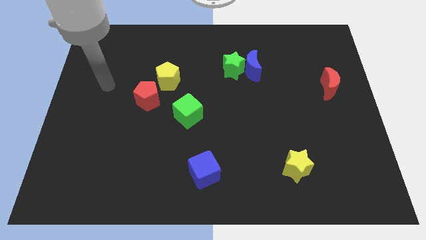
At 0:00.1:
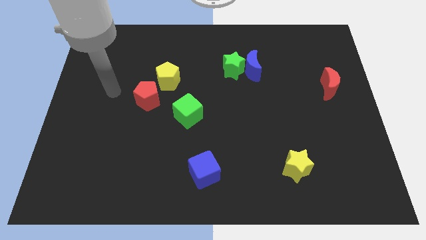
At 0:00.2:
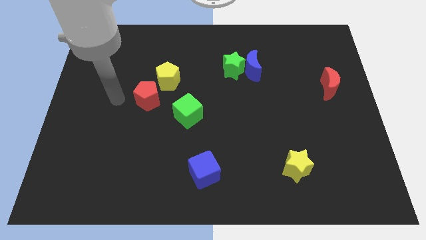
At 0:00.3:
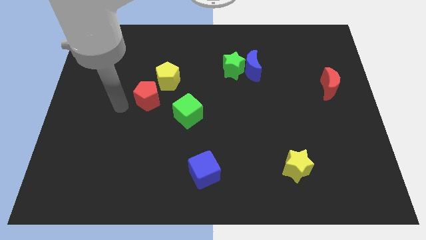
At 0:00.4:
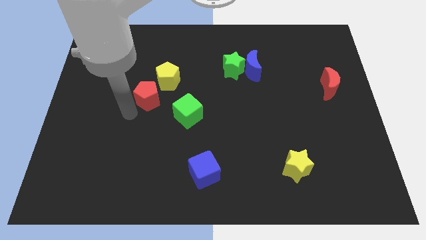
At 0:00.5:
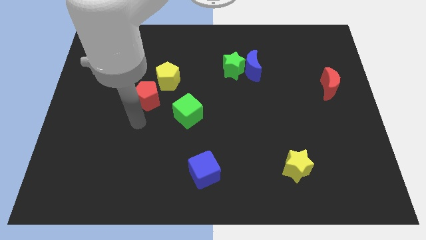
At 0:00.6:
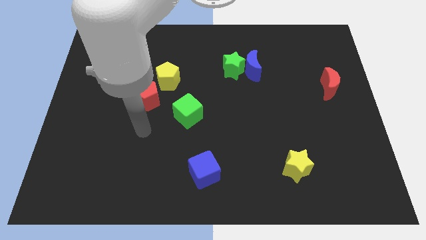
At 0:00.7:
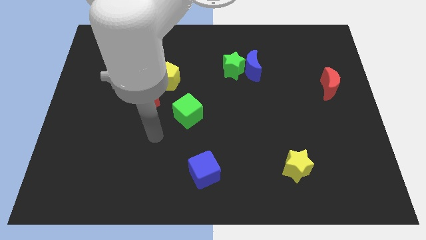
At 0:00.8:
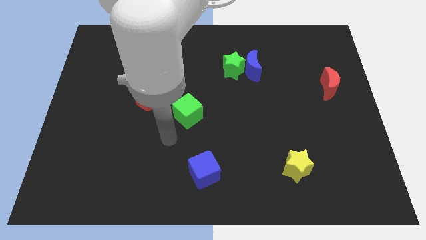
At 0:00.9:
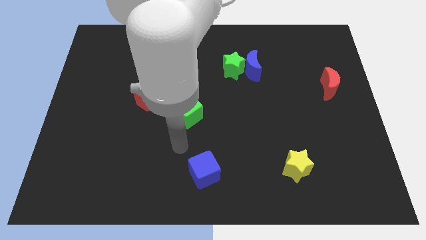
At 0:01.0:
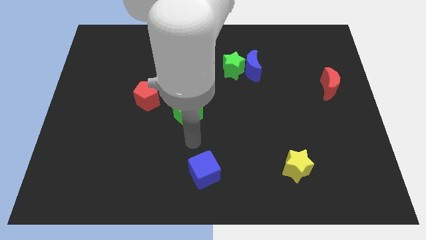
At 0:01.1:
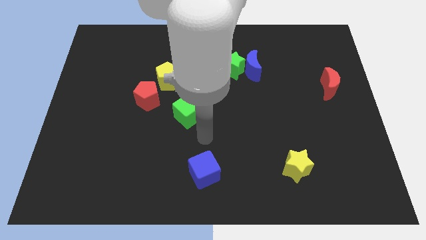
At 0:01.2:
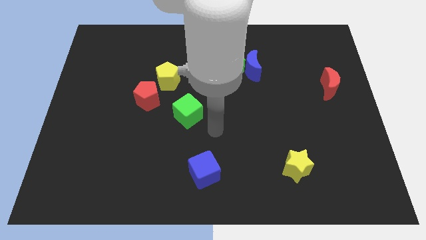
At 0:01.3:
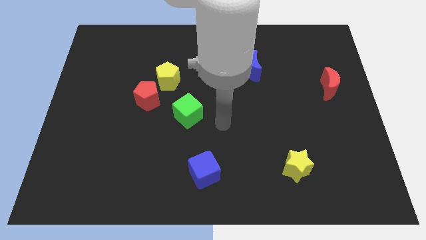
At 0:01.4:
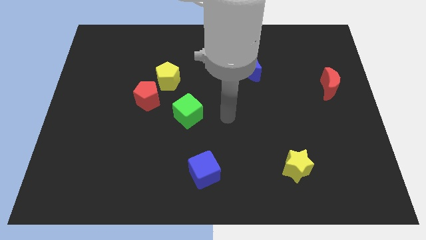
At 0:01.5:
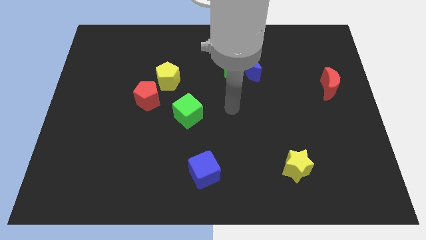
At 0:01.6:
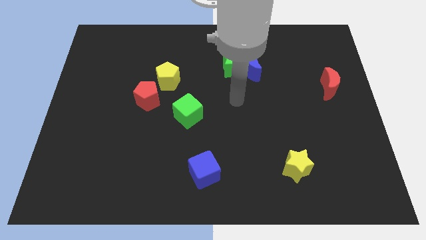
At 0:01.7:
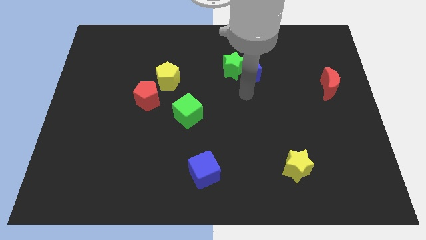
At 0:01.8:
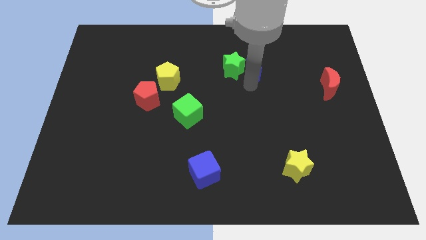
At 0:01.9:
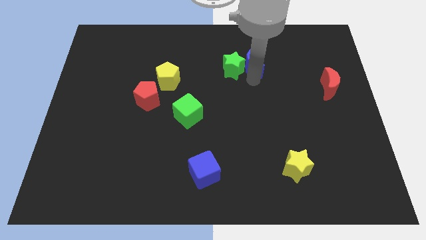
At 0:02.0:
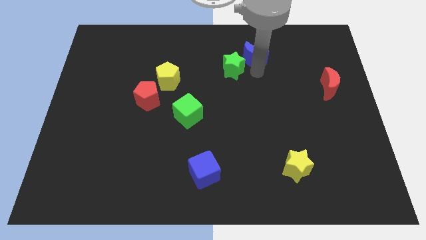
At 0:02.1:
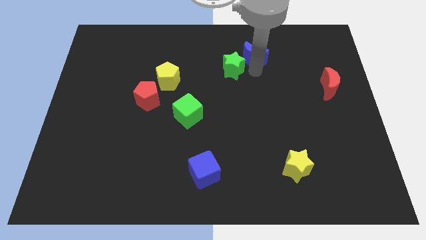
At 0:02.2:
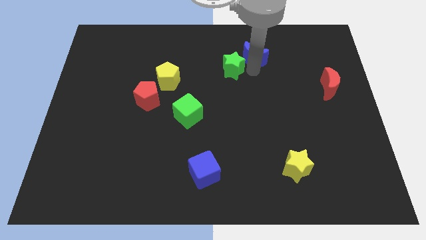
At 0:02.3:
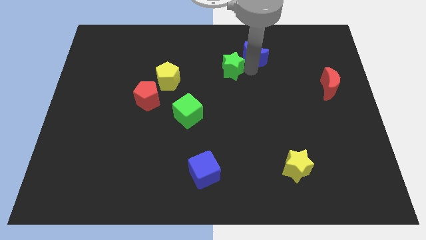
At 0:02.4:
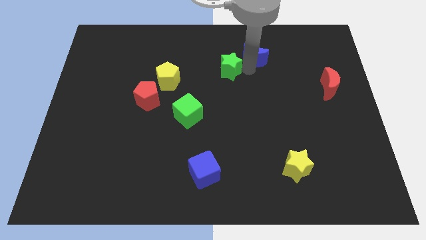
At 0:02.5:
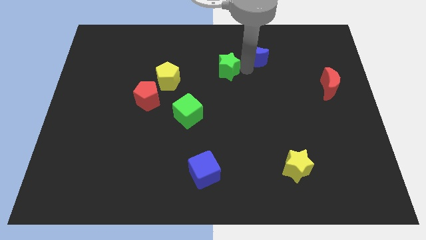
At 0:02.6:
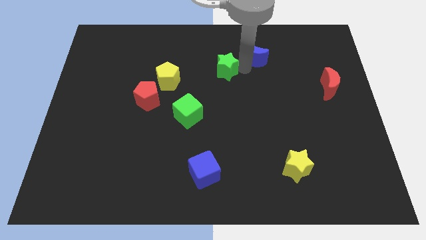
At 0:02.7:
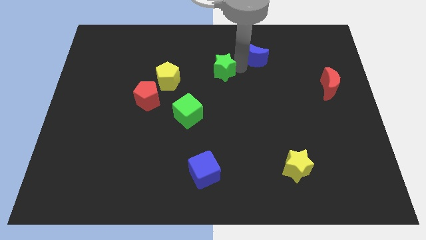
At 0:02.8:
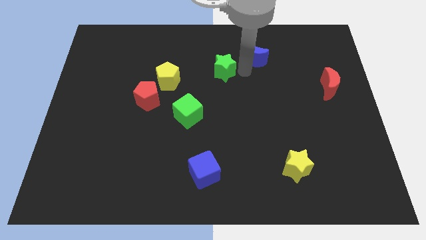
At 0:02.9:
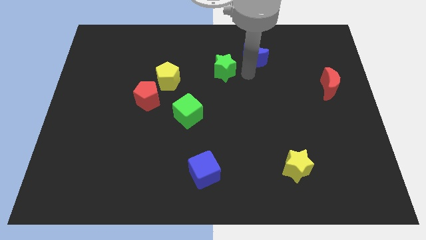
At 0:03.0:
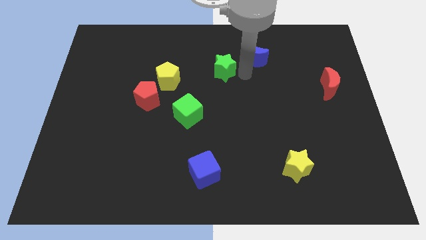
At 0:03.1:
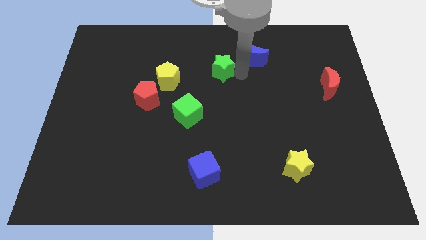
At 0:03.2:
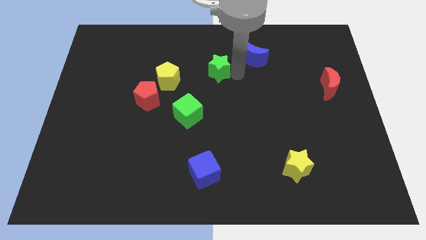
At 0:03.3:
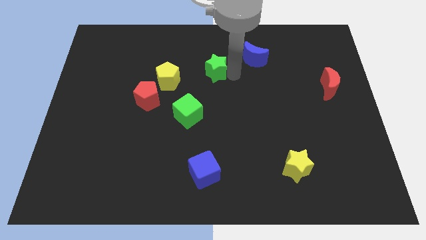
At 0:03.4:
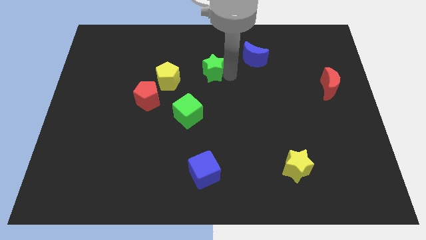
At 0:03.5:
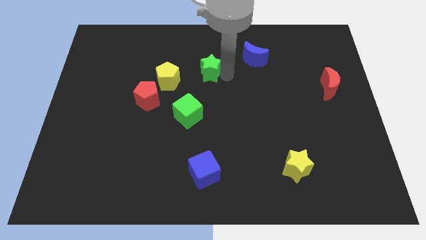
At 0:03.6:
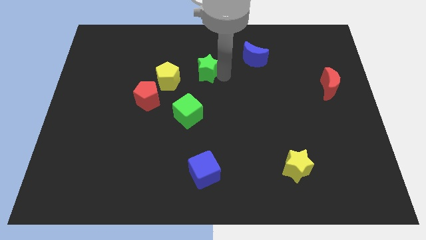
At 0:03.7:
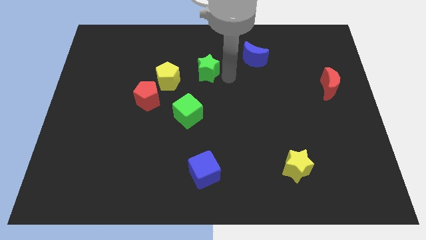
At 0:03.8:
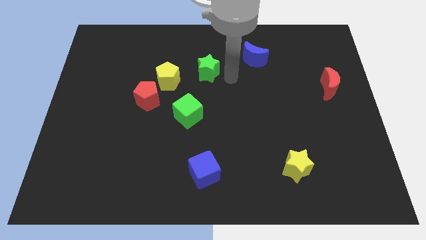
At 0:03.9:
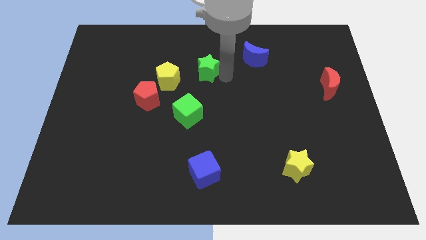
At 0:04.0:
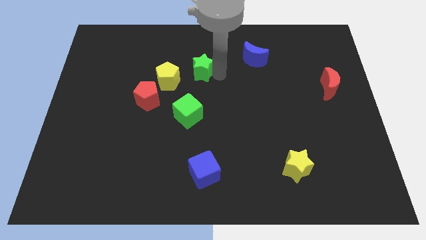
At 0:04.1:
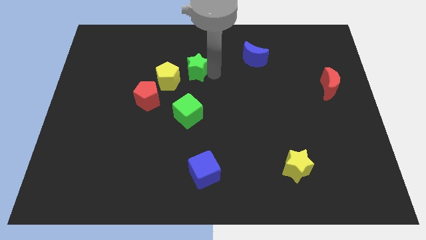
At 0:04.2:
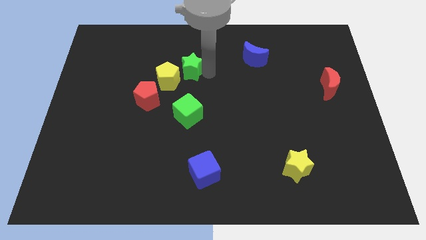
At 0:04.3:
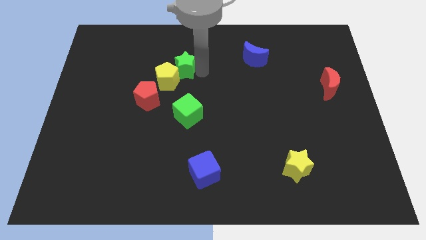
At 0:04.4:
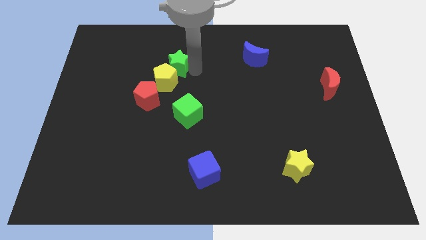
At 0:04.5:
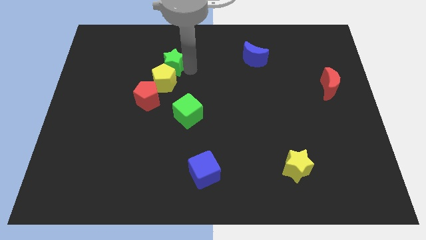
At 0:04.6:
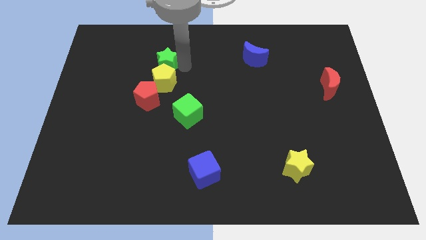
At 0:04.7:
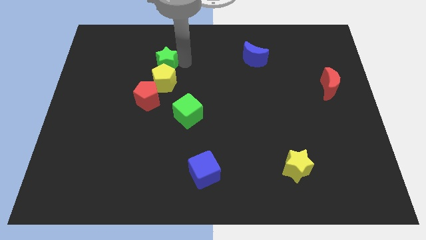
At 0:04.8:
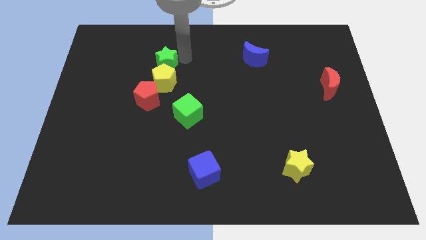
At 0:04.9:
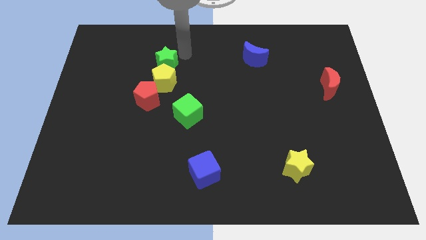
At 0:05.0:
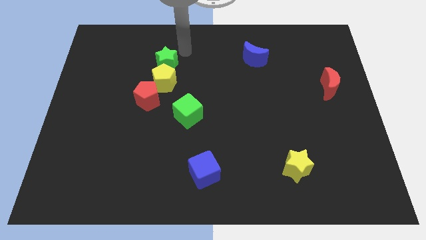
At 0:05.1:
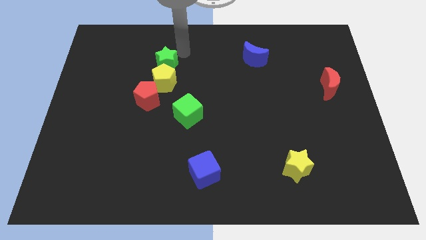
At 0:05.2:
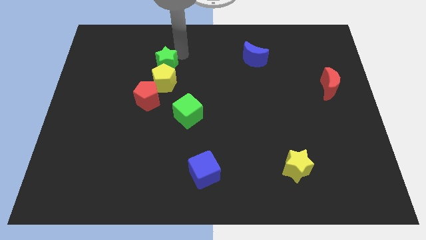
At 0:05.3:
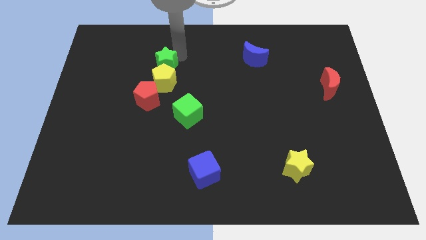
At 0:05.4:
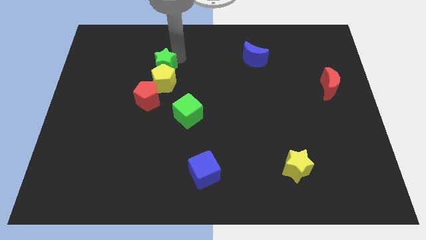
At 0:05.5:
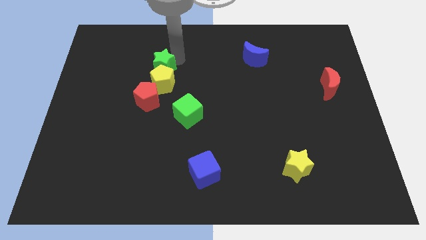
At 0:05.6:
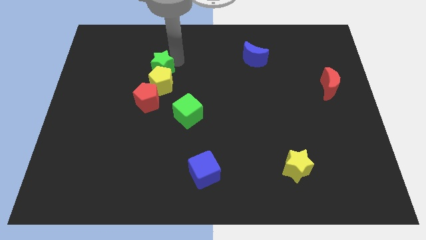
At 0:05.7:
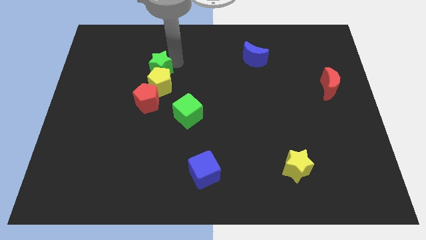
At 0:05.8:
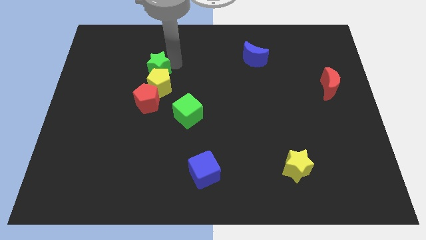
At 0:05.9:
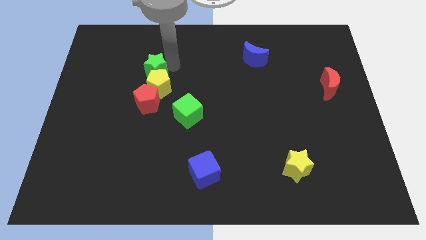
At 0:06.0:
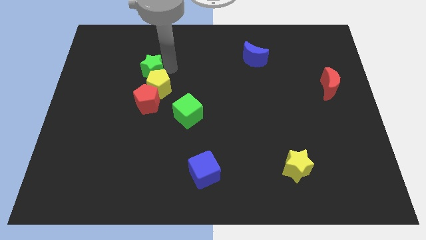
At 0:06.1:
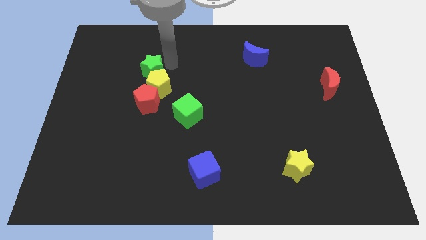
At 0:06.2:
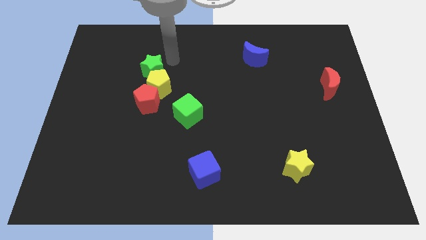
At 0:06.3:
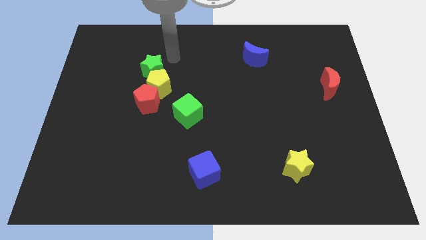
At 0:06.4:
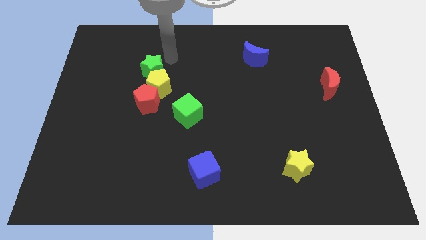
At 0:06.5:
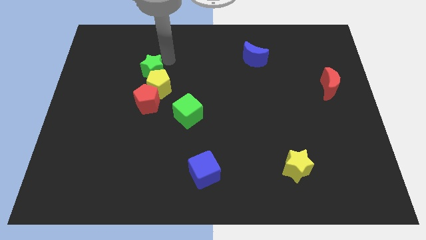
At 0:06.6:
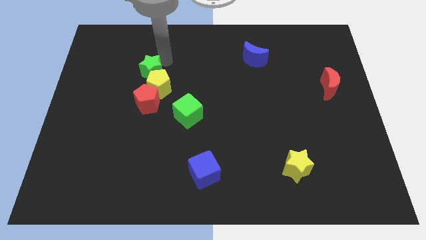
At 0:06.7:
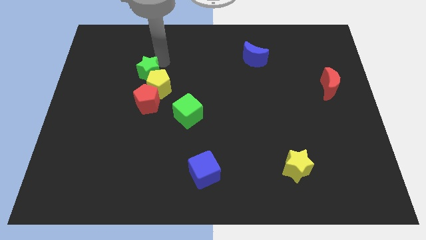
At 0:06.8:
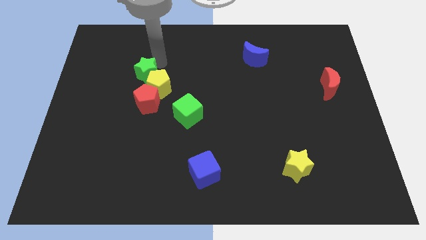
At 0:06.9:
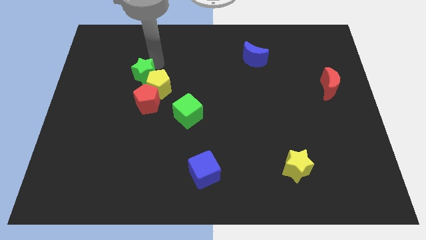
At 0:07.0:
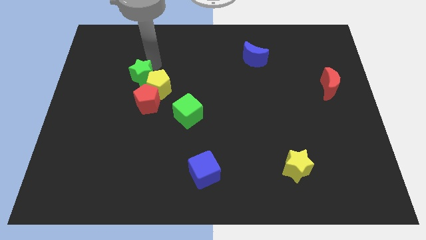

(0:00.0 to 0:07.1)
move the green star to the top left side of the red pentagon
